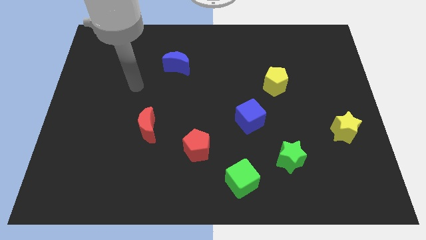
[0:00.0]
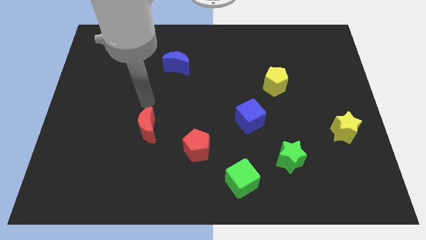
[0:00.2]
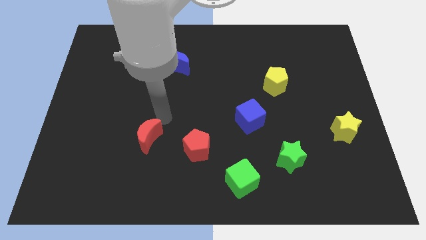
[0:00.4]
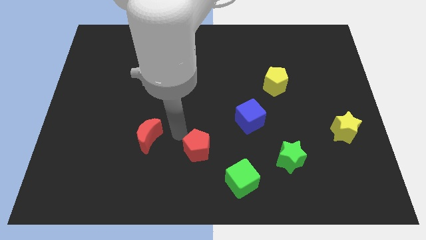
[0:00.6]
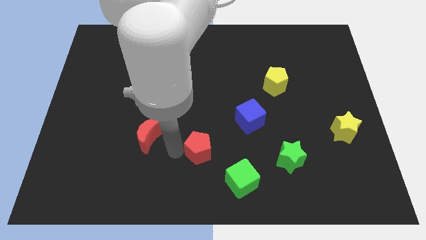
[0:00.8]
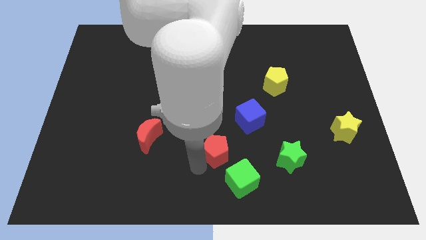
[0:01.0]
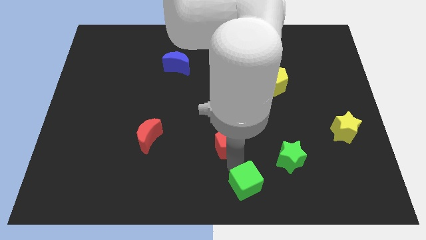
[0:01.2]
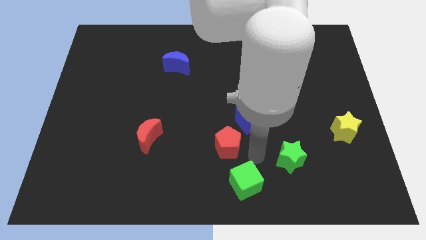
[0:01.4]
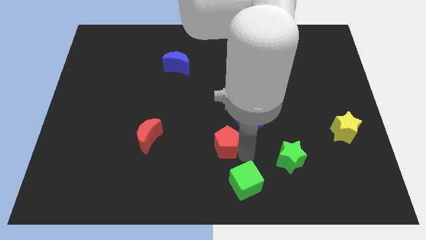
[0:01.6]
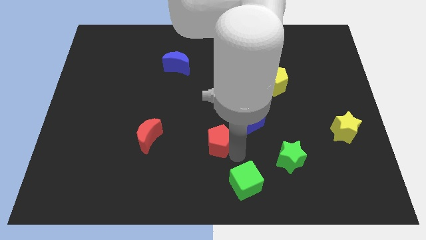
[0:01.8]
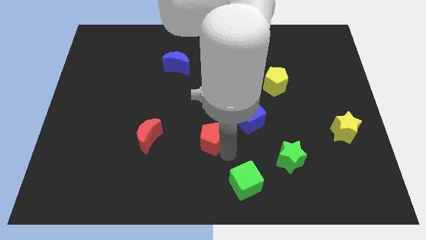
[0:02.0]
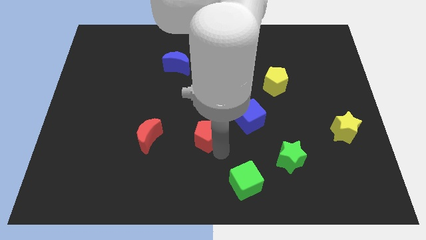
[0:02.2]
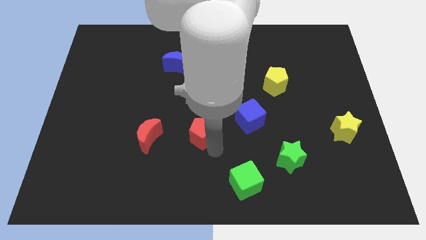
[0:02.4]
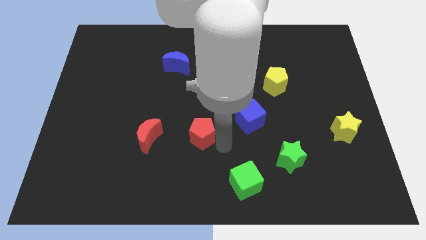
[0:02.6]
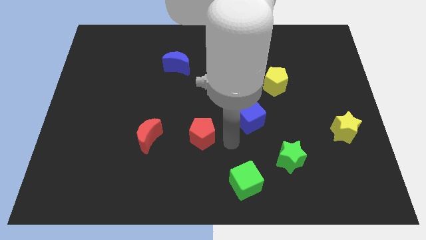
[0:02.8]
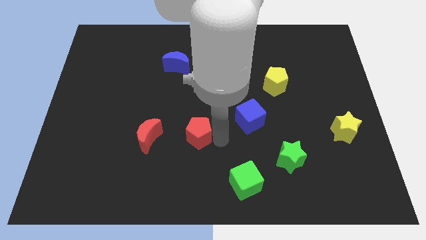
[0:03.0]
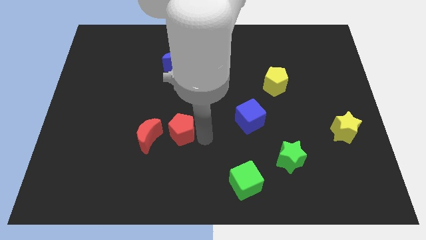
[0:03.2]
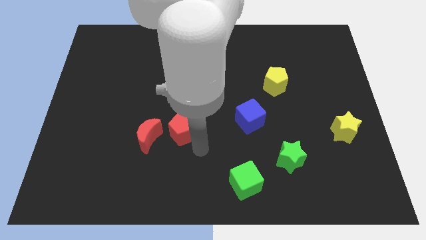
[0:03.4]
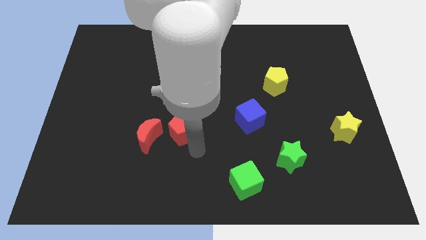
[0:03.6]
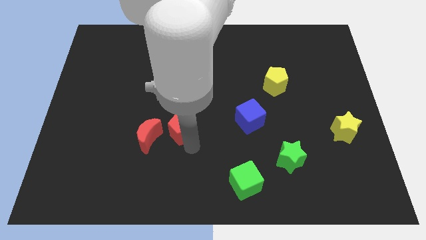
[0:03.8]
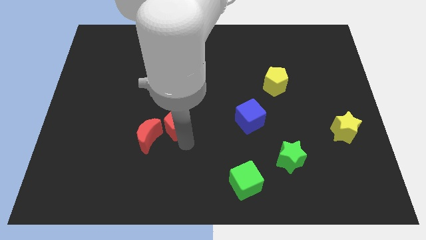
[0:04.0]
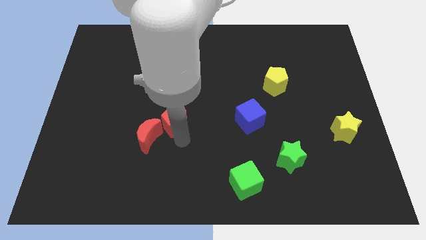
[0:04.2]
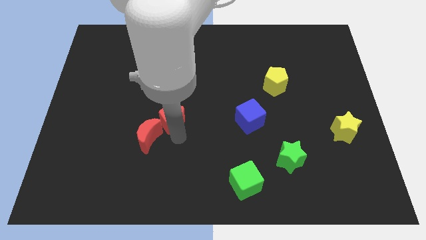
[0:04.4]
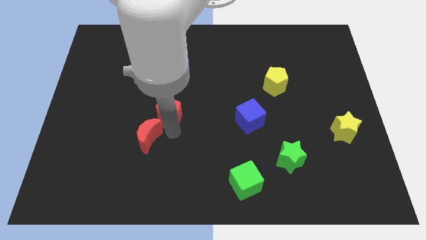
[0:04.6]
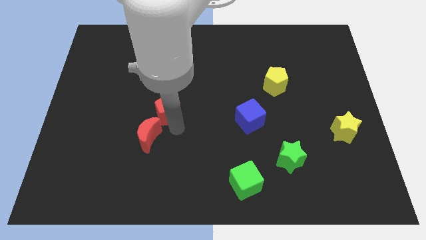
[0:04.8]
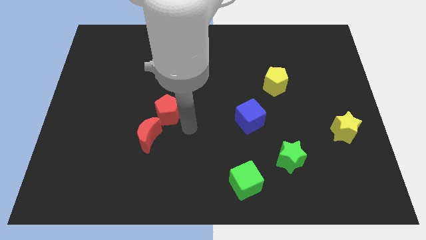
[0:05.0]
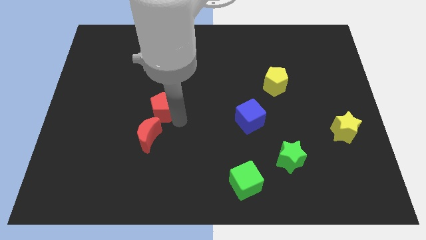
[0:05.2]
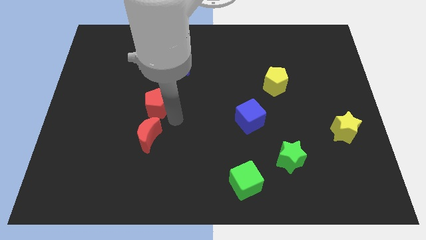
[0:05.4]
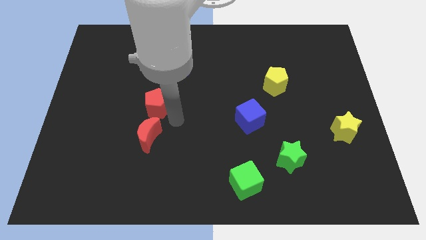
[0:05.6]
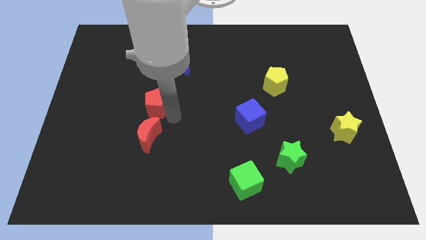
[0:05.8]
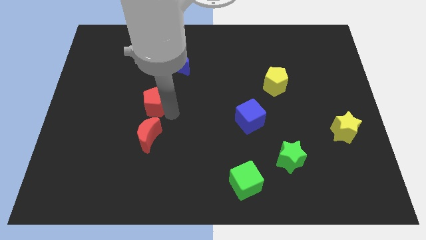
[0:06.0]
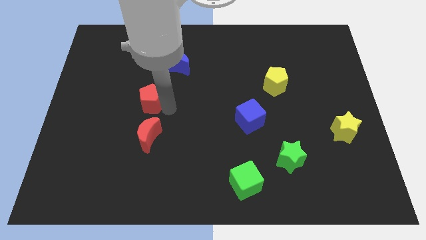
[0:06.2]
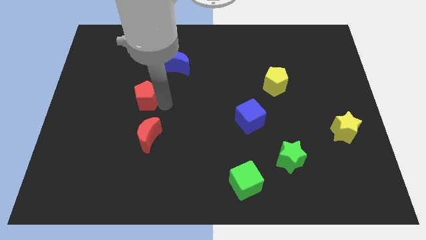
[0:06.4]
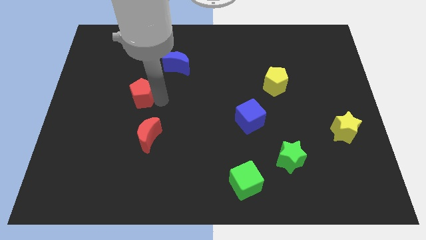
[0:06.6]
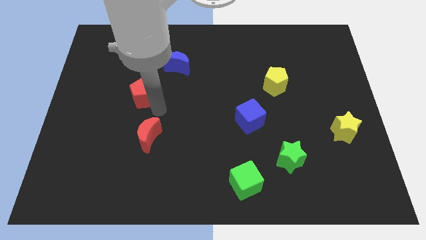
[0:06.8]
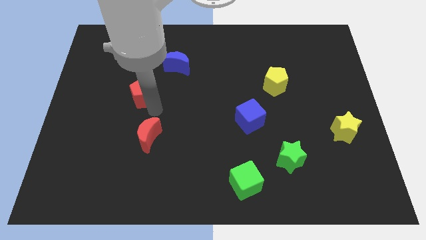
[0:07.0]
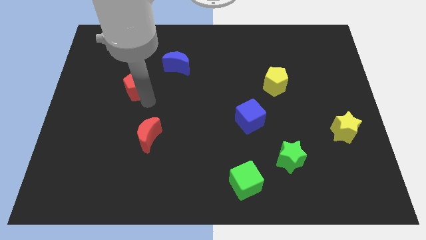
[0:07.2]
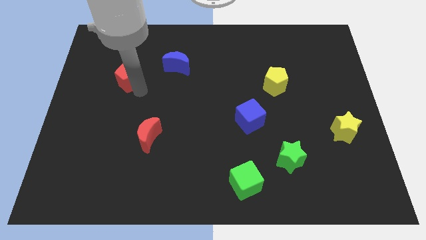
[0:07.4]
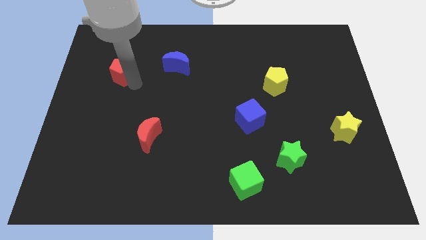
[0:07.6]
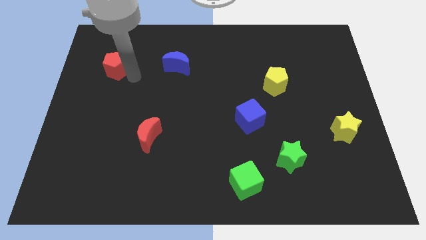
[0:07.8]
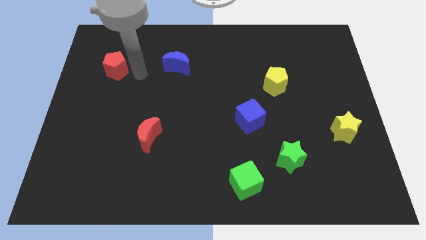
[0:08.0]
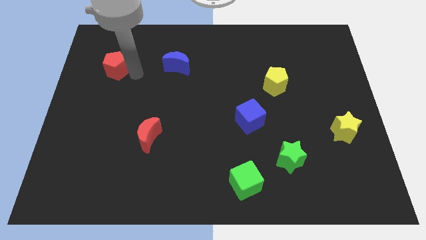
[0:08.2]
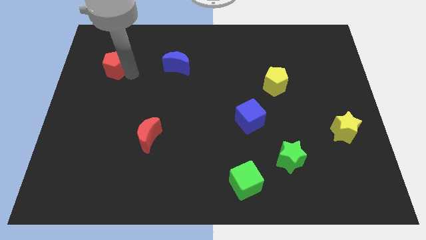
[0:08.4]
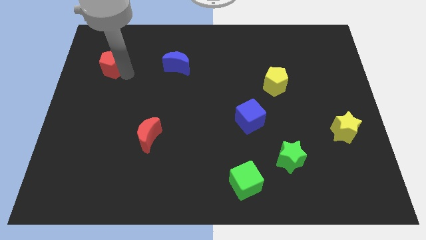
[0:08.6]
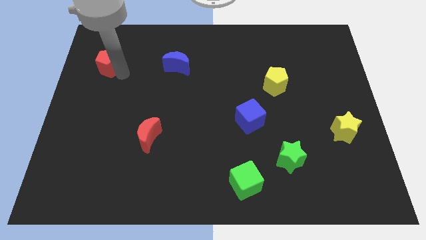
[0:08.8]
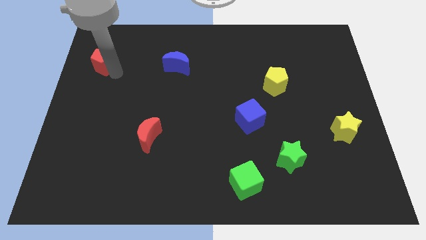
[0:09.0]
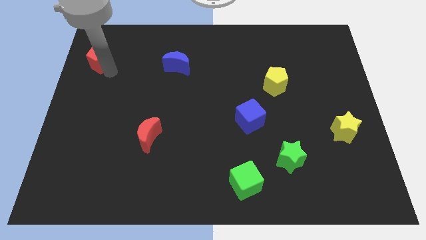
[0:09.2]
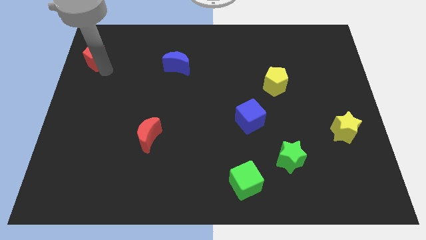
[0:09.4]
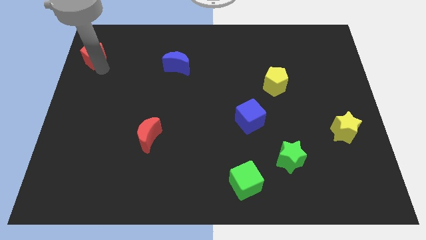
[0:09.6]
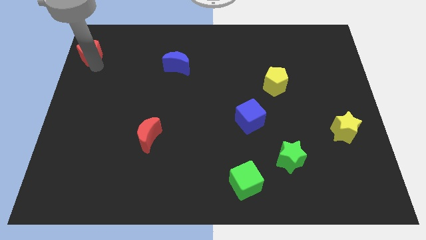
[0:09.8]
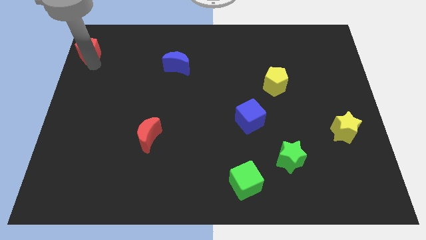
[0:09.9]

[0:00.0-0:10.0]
push the red pentagon to the upper left corner

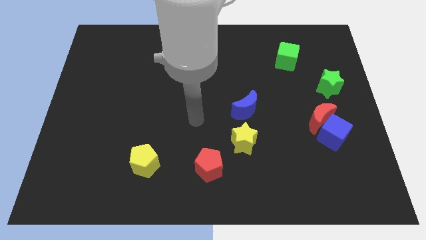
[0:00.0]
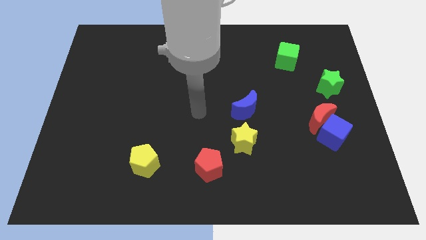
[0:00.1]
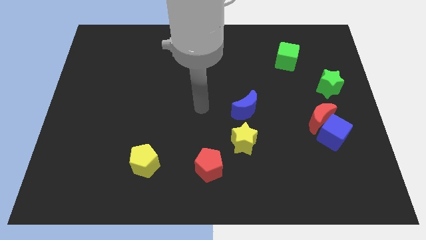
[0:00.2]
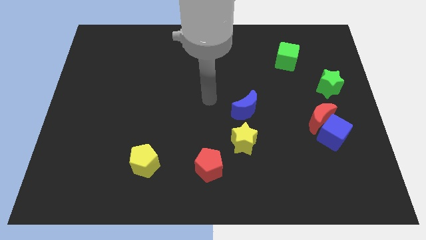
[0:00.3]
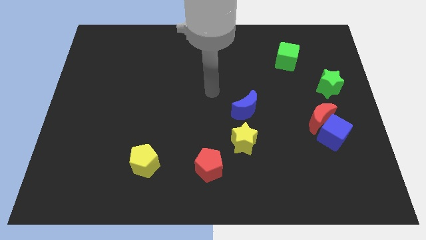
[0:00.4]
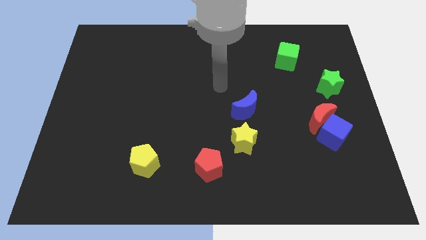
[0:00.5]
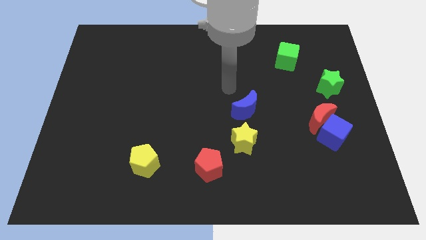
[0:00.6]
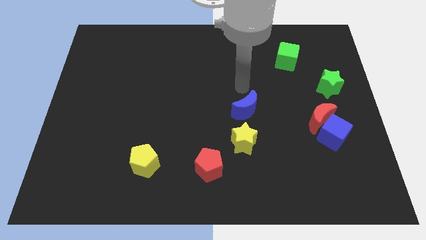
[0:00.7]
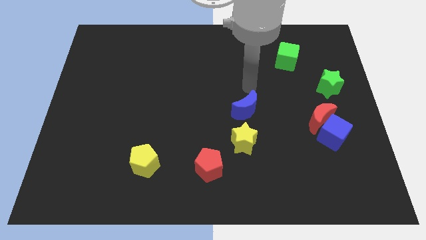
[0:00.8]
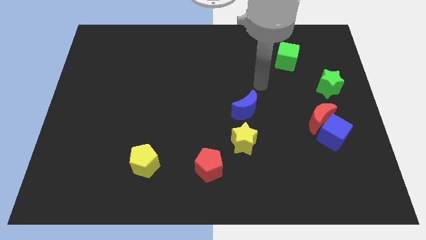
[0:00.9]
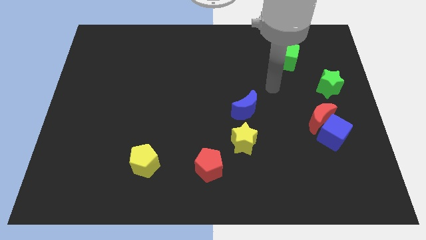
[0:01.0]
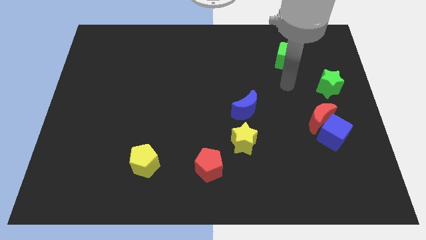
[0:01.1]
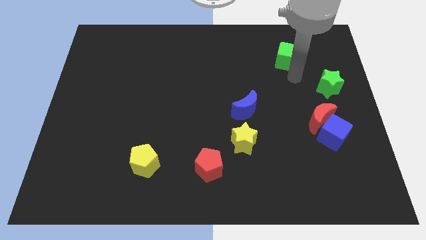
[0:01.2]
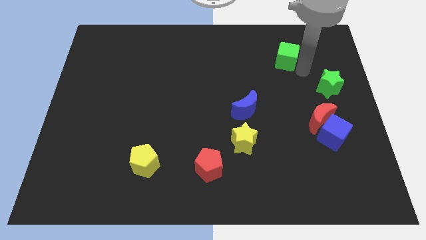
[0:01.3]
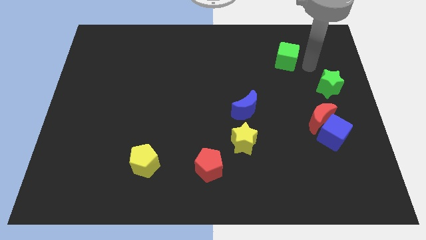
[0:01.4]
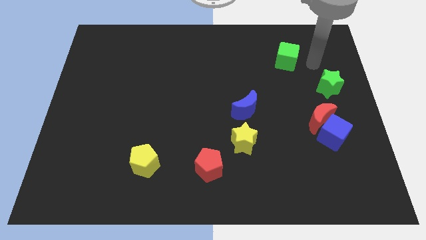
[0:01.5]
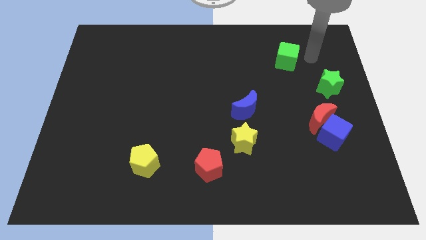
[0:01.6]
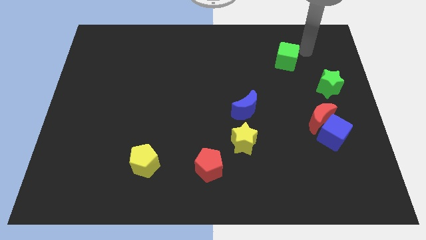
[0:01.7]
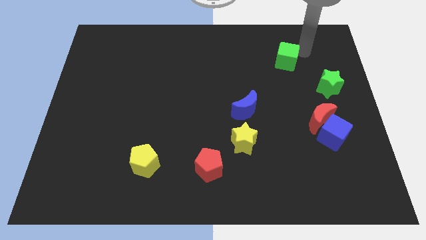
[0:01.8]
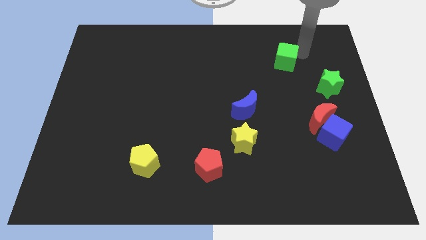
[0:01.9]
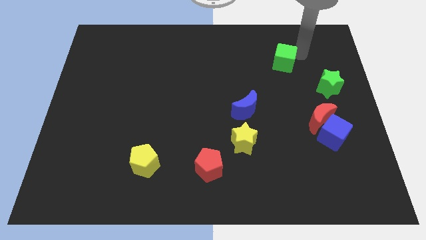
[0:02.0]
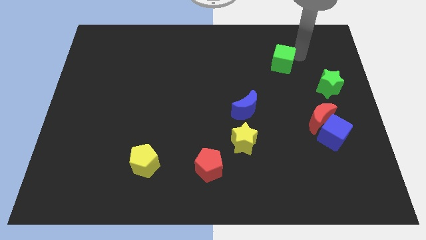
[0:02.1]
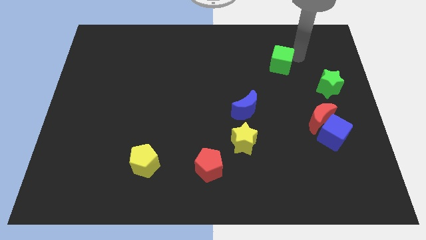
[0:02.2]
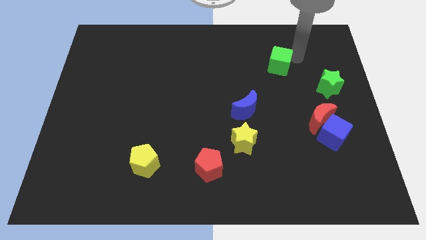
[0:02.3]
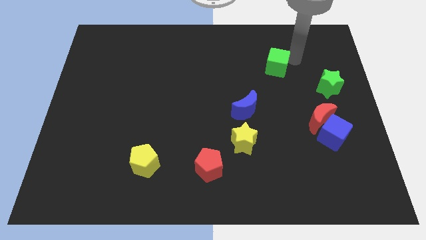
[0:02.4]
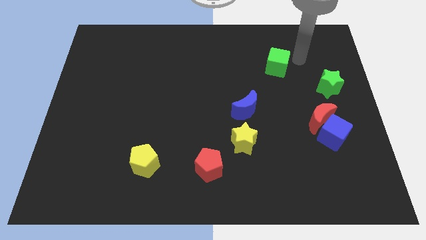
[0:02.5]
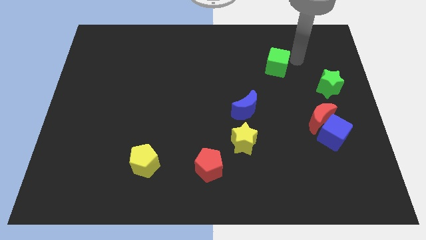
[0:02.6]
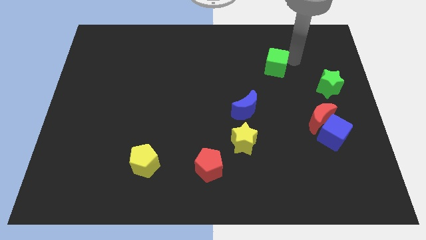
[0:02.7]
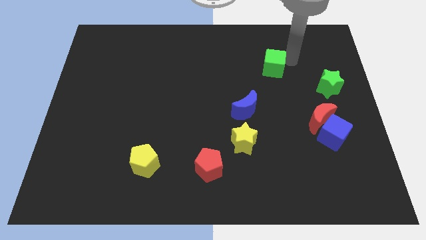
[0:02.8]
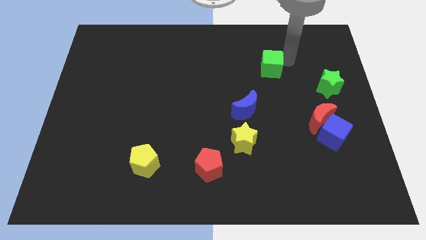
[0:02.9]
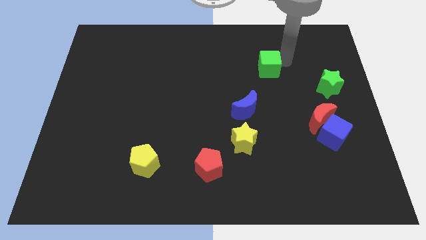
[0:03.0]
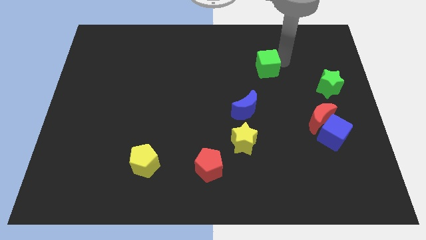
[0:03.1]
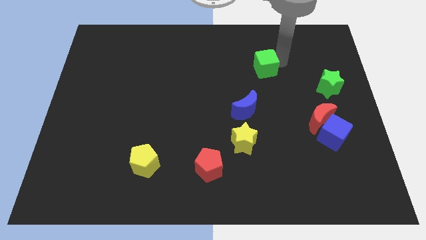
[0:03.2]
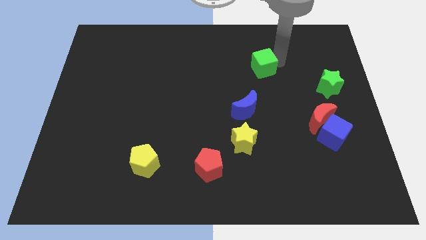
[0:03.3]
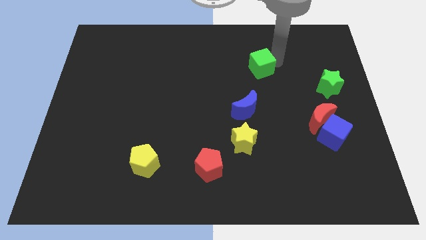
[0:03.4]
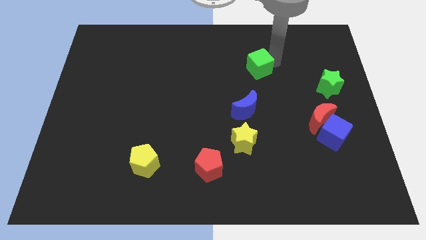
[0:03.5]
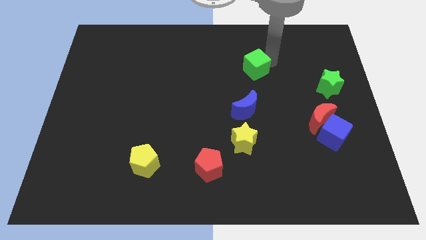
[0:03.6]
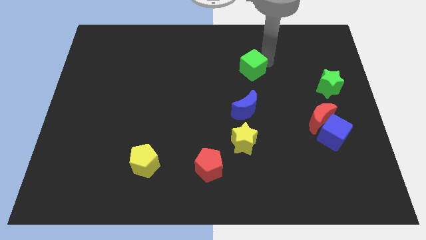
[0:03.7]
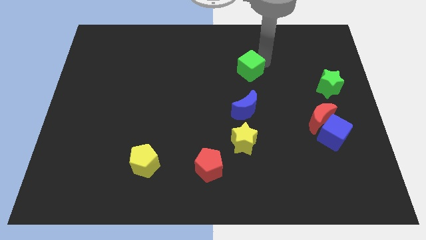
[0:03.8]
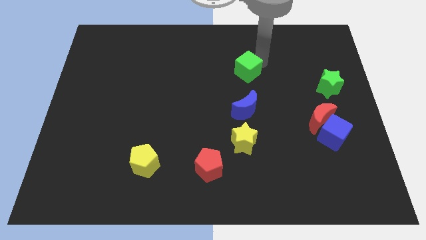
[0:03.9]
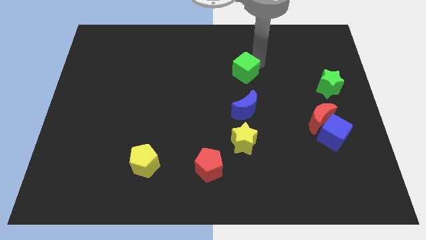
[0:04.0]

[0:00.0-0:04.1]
push the green cube to the center
